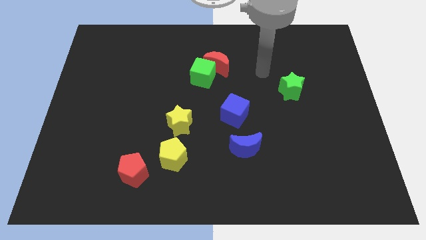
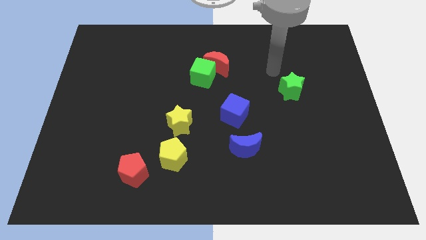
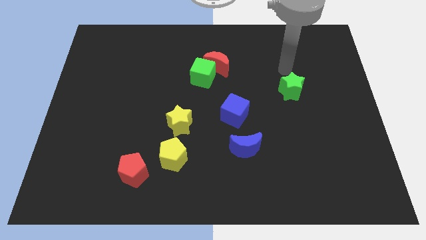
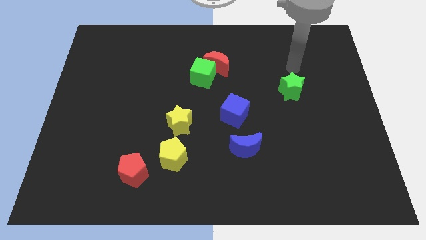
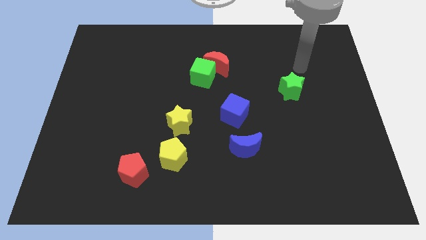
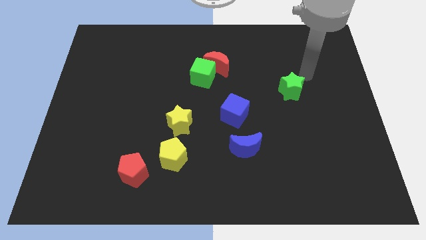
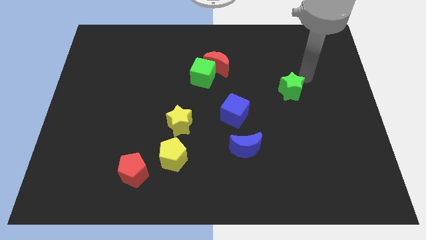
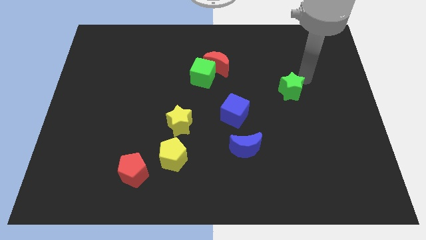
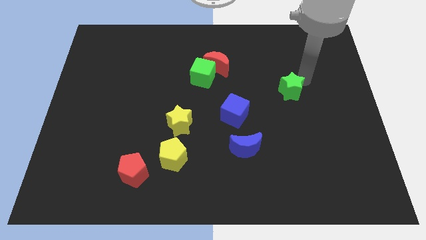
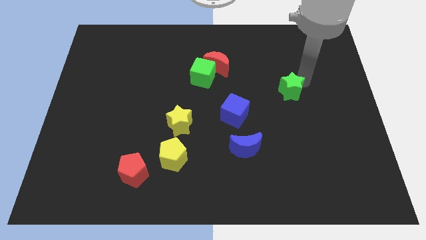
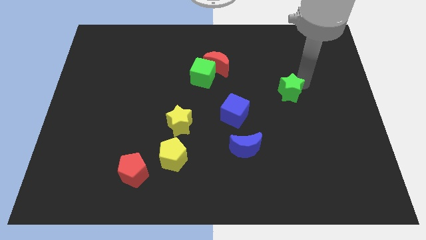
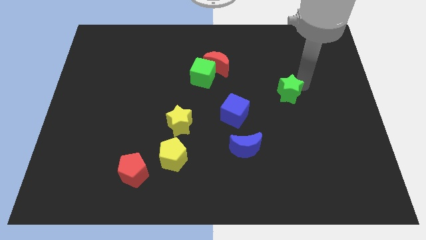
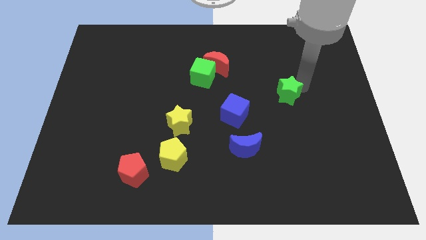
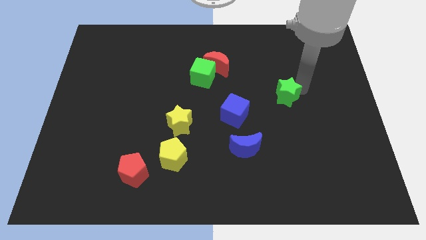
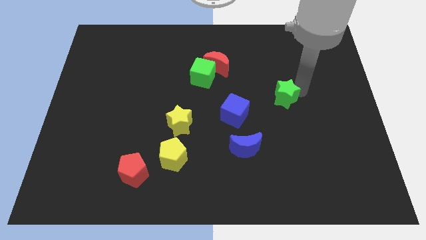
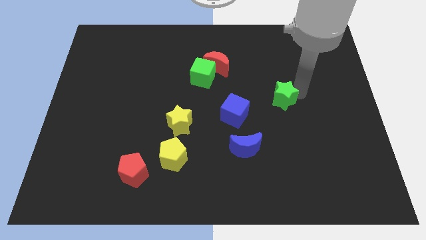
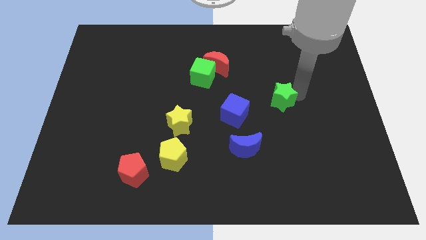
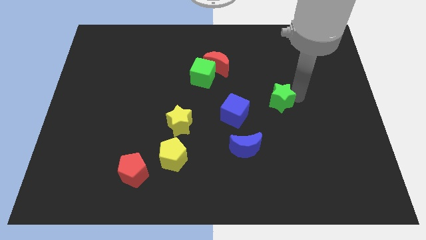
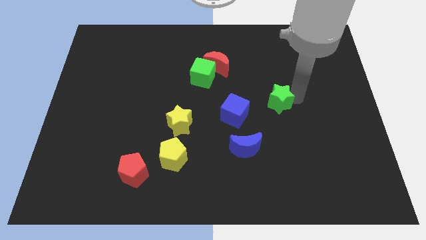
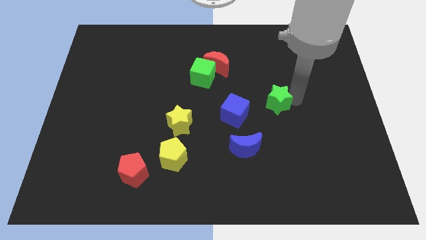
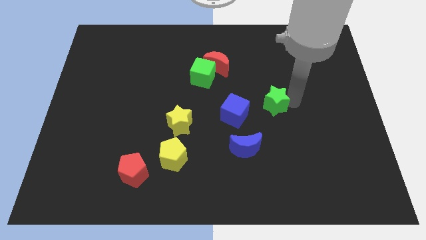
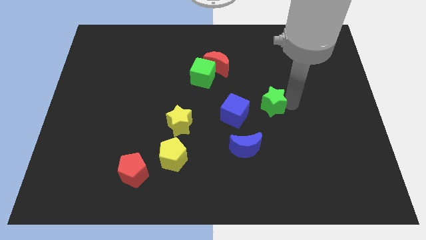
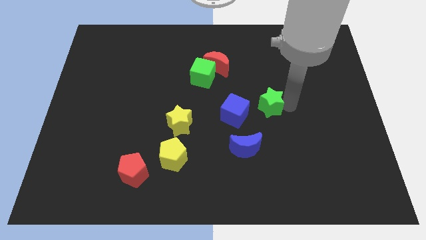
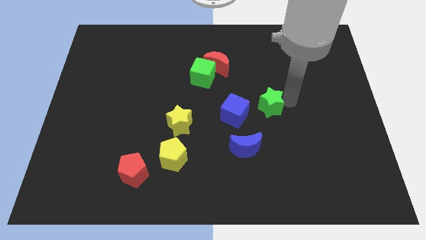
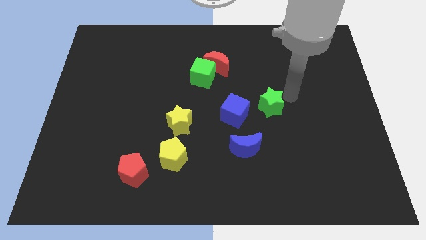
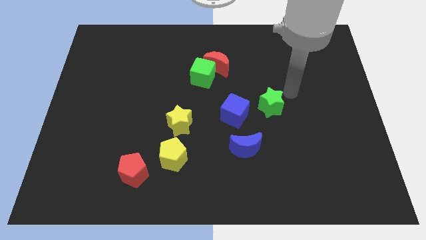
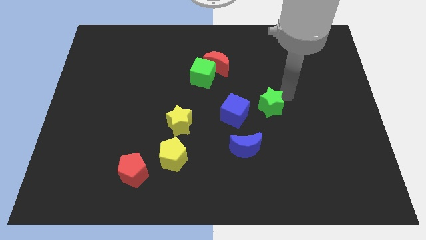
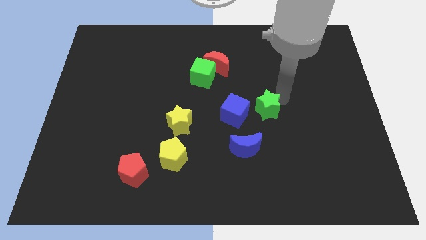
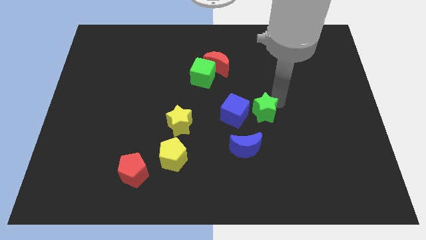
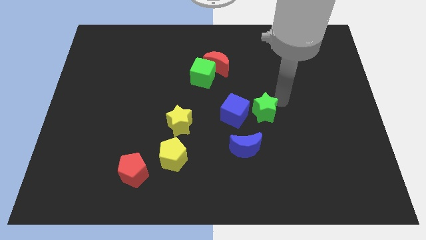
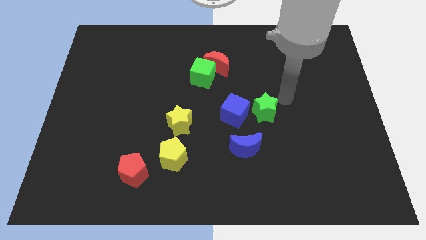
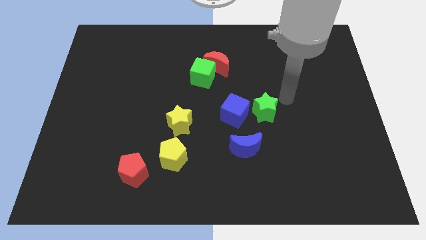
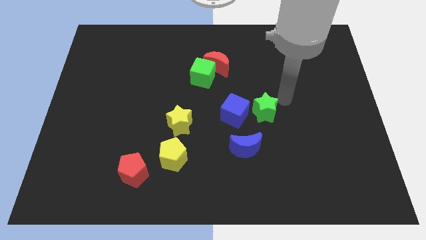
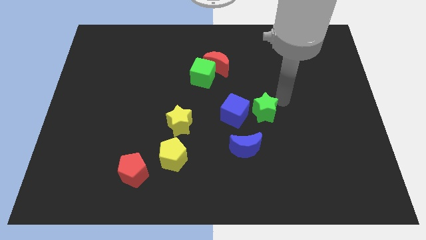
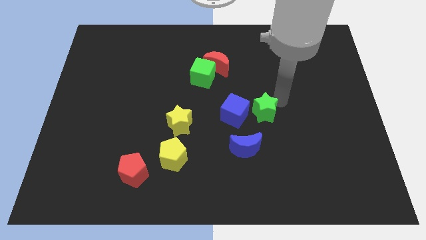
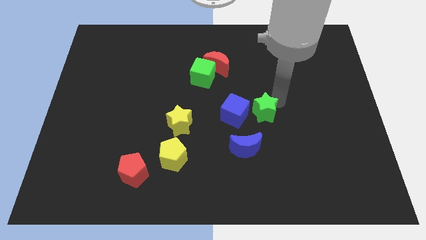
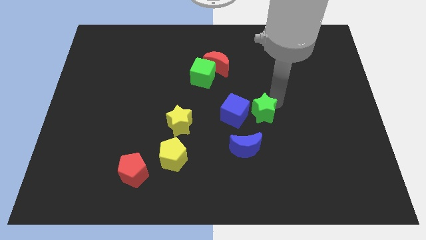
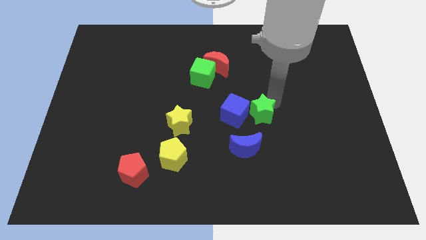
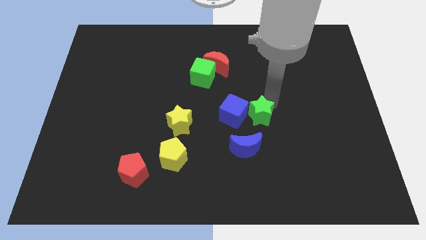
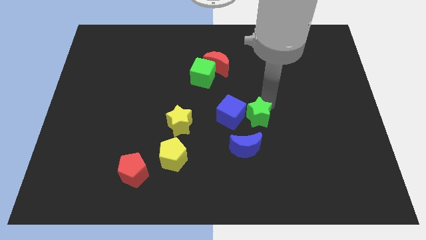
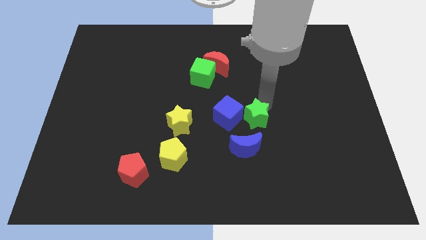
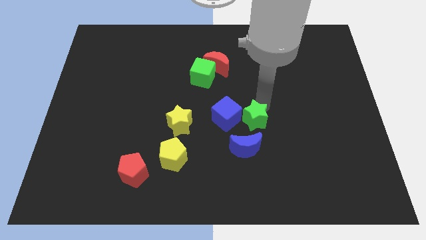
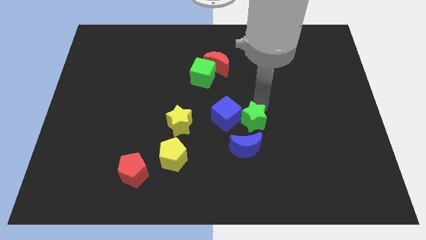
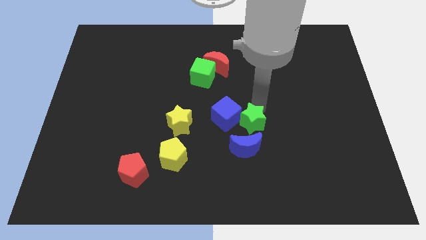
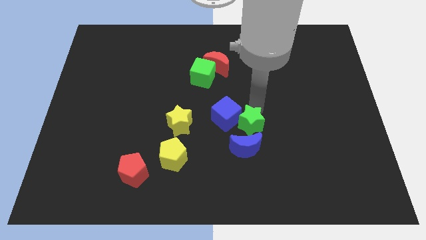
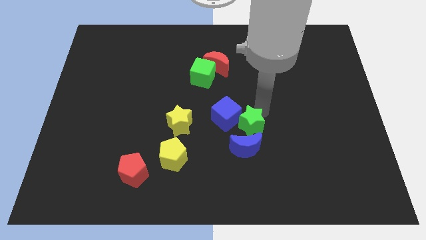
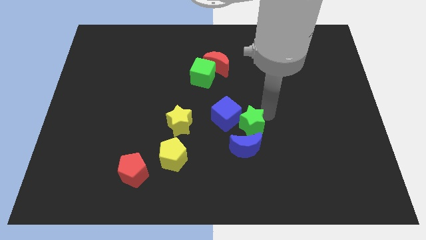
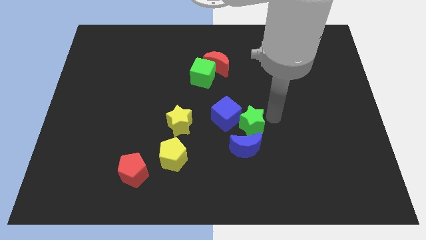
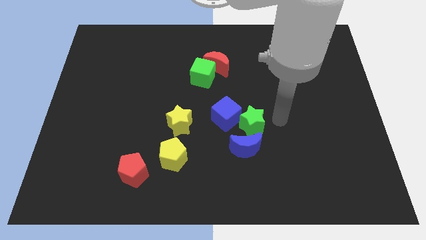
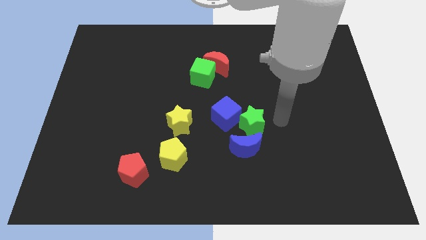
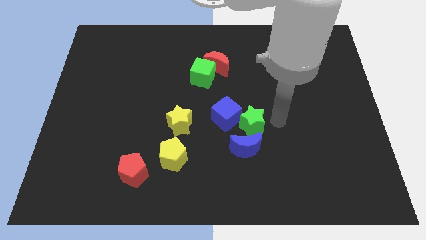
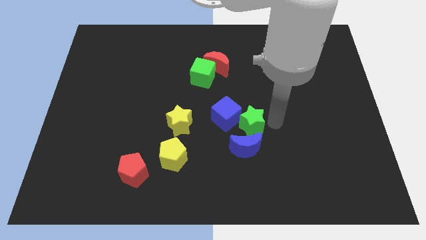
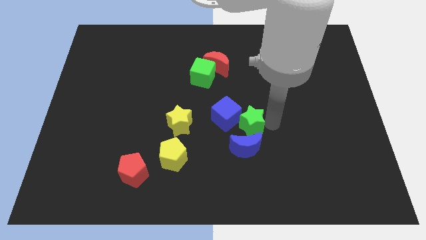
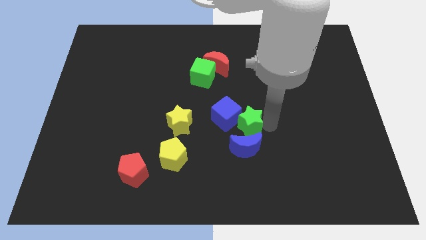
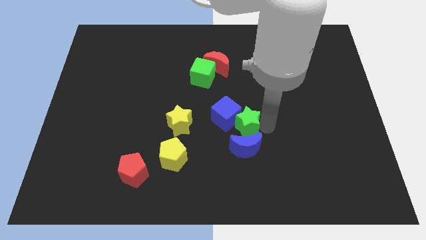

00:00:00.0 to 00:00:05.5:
put the green star diagonally up and to the left of the blue moon

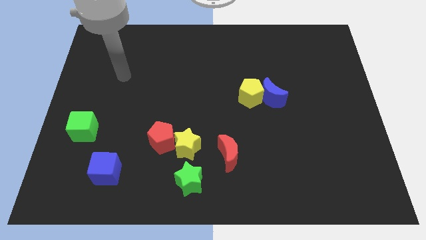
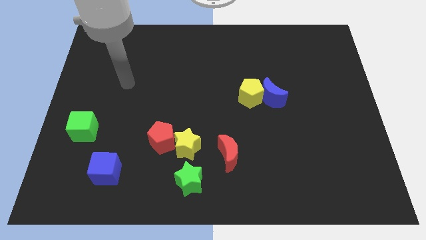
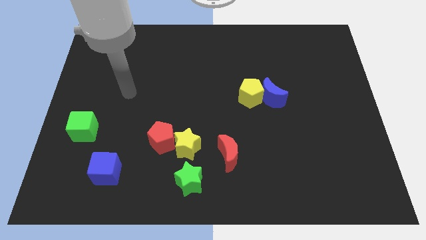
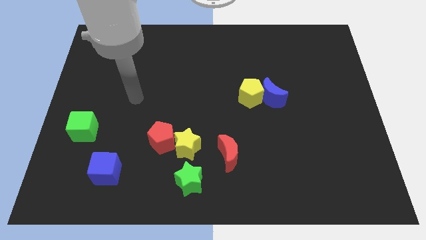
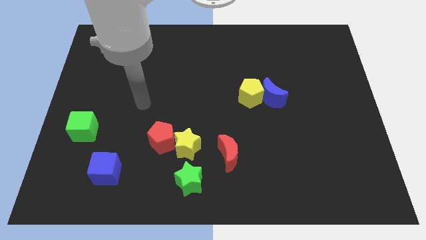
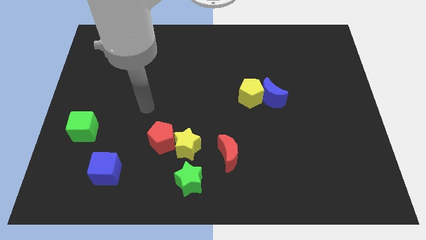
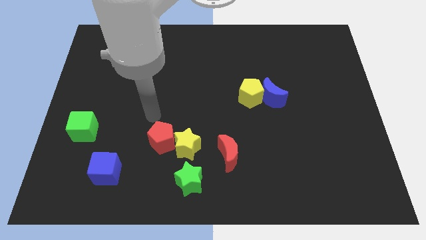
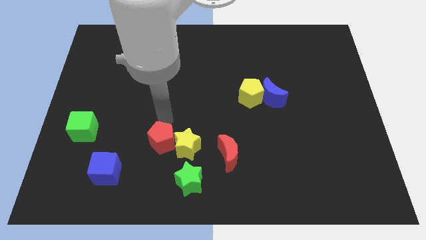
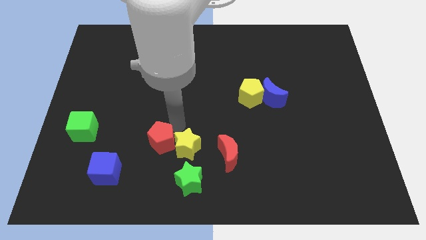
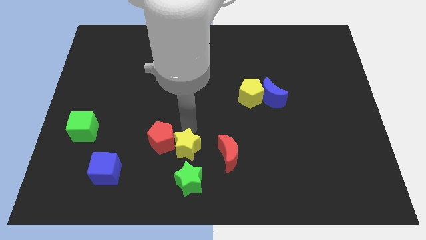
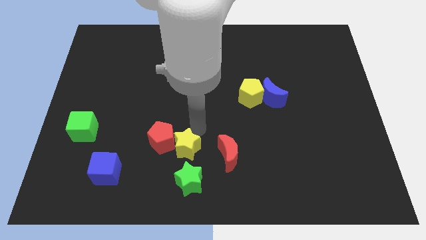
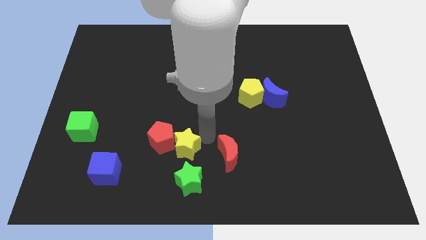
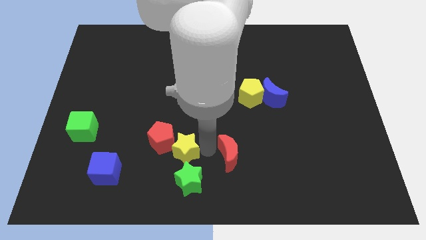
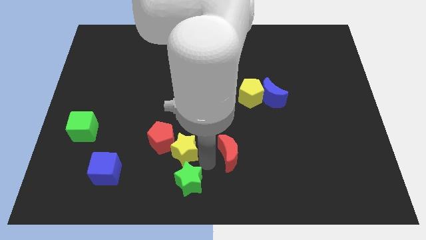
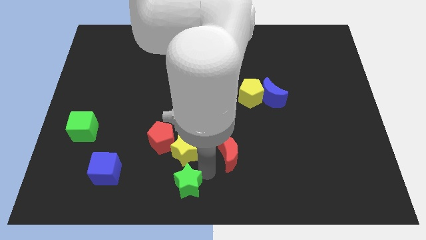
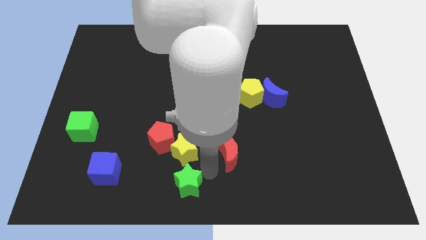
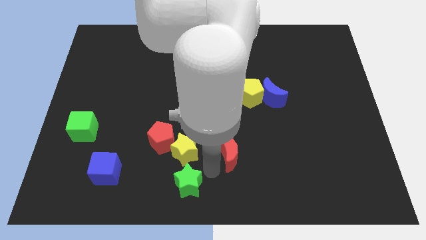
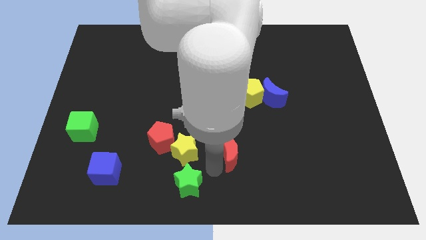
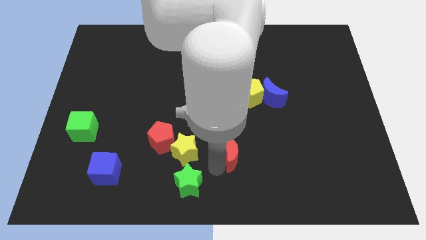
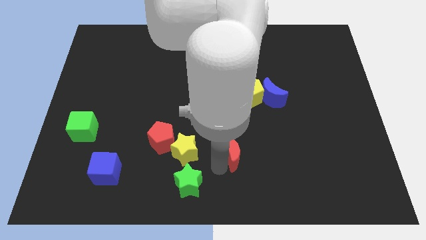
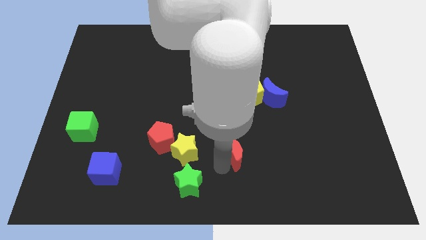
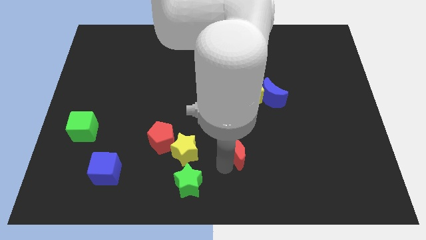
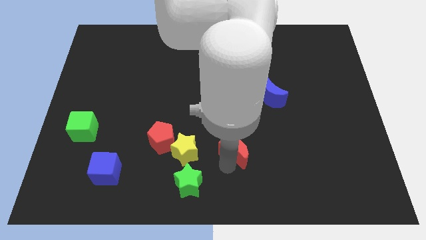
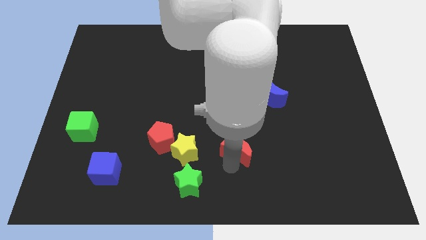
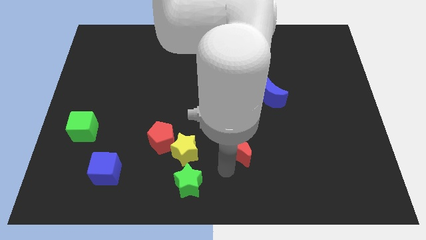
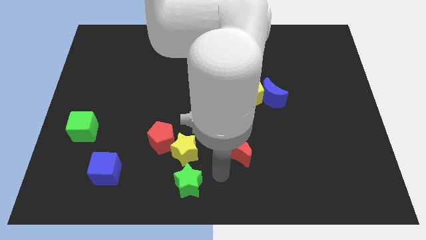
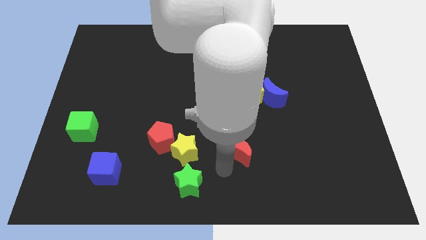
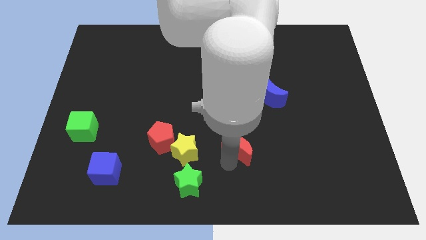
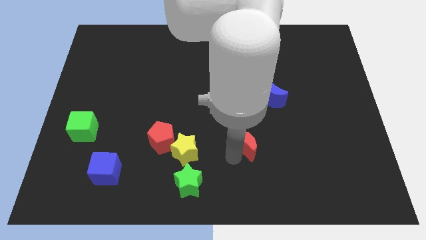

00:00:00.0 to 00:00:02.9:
move the red moon to the bottom side of the yellow pentagon

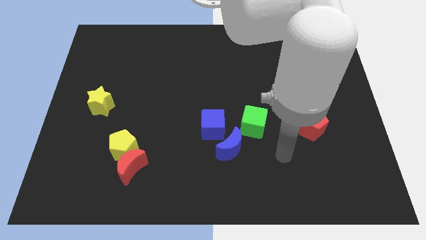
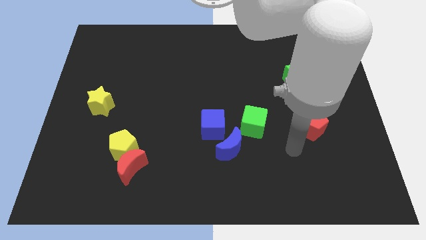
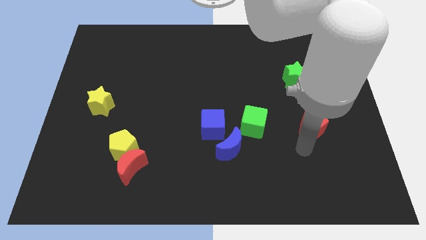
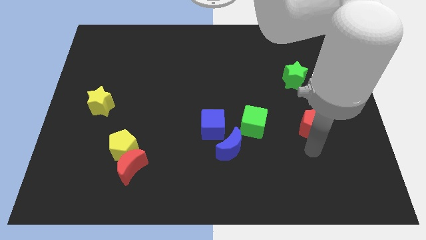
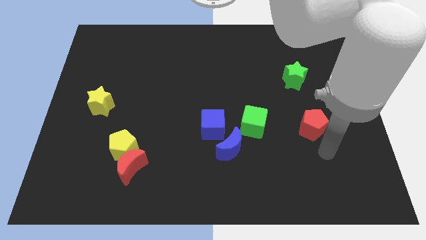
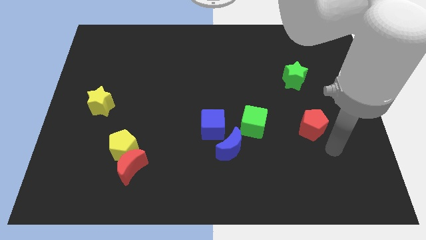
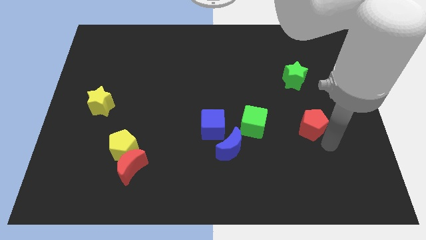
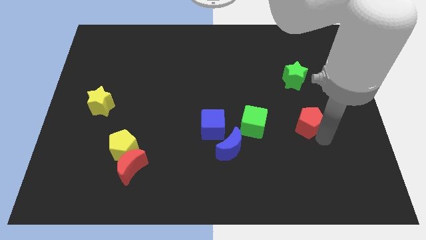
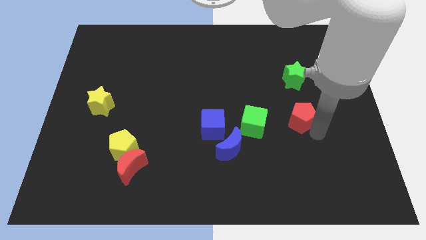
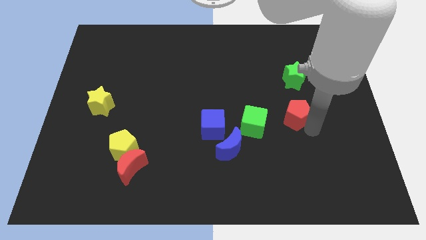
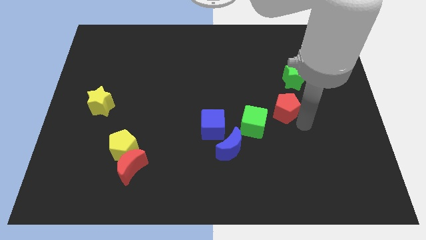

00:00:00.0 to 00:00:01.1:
put the red pentagon to the bottom left side of the green star
